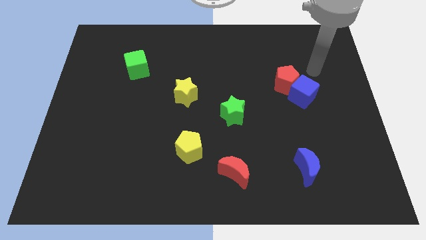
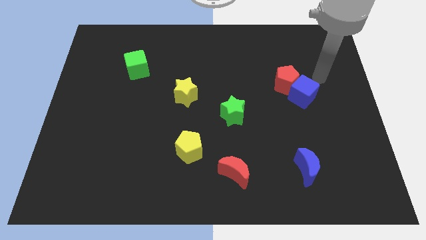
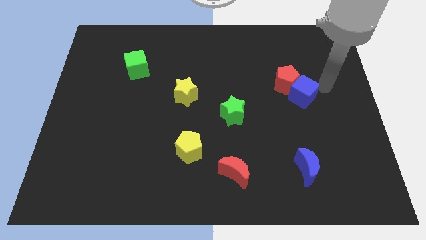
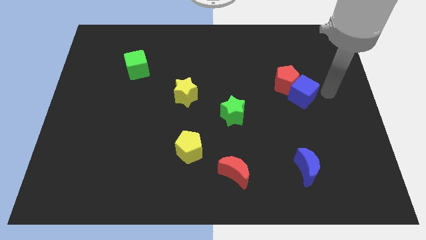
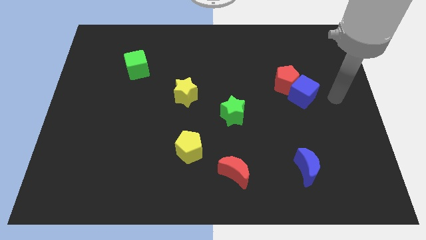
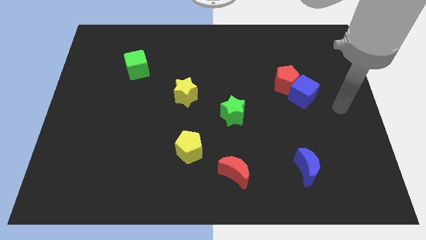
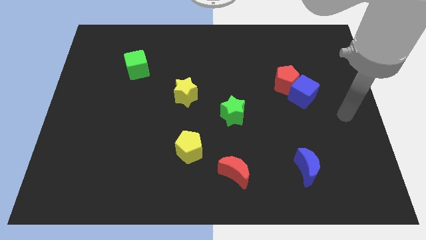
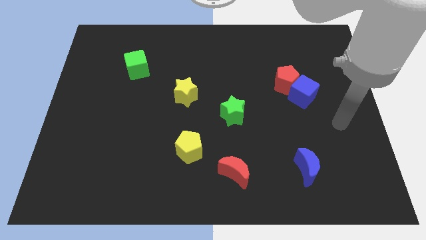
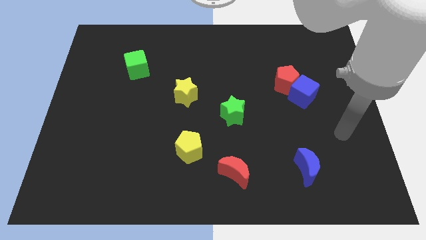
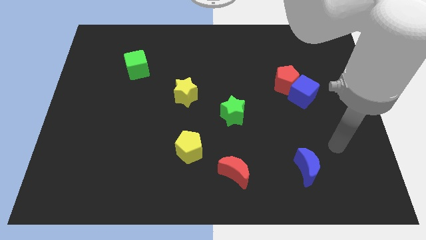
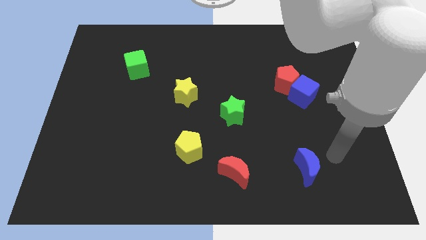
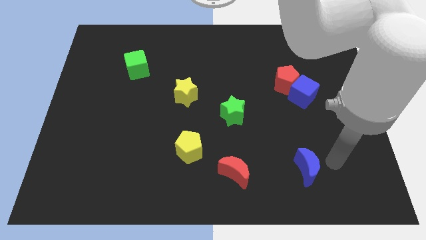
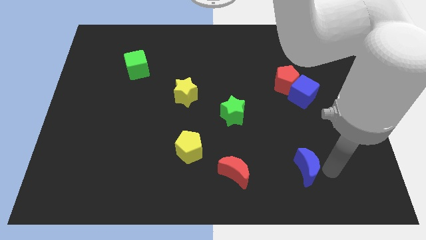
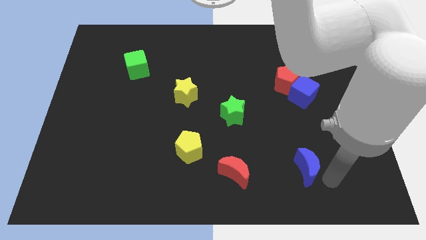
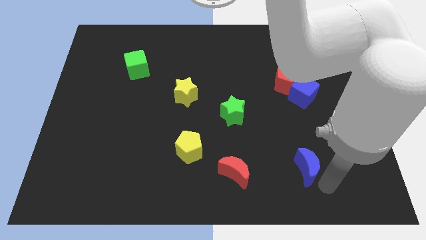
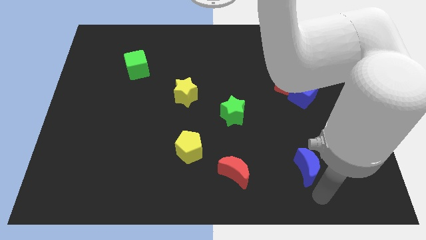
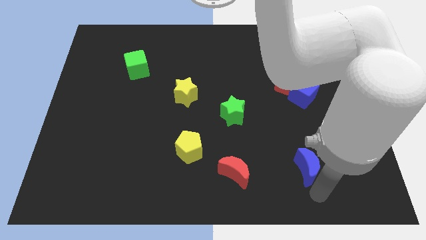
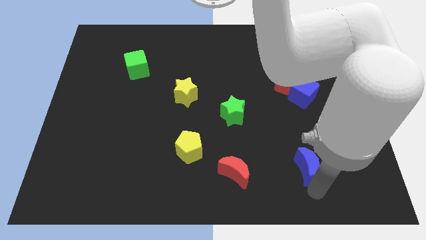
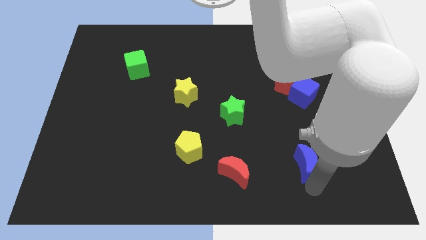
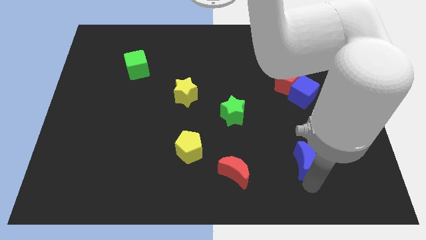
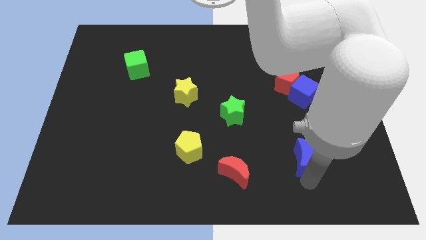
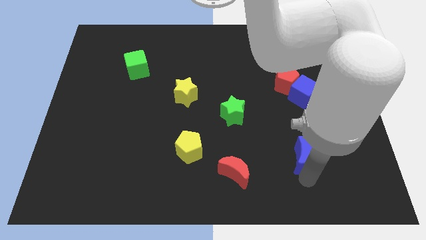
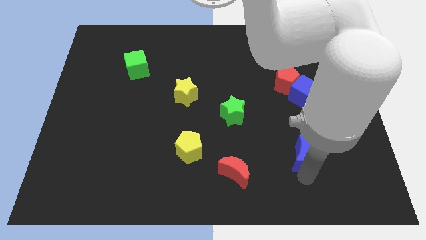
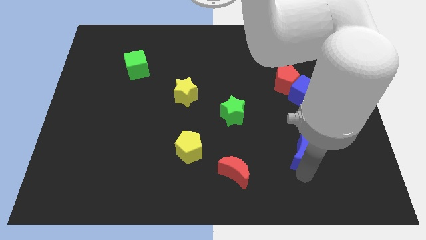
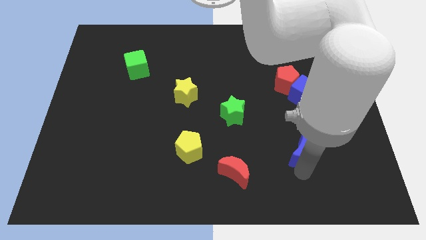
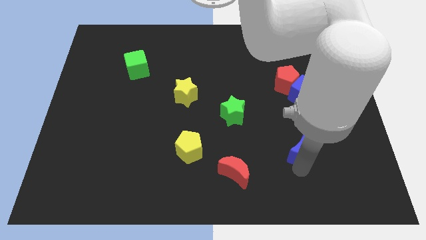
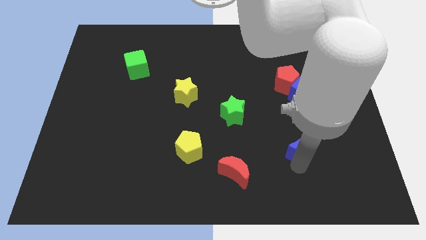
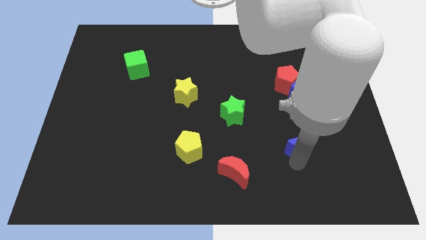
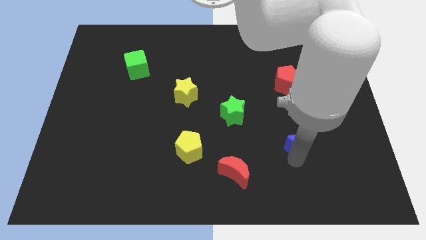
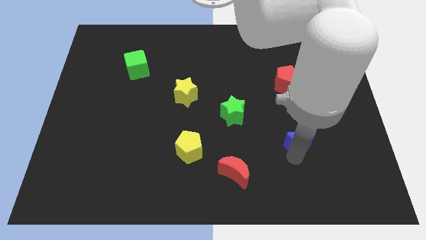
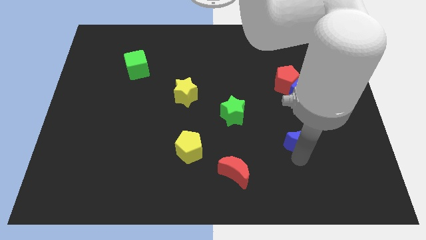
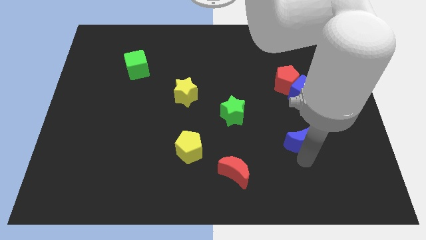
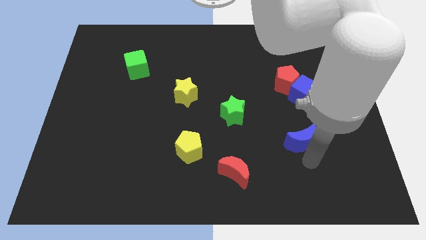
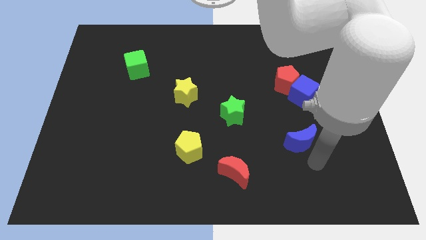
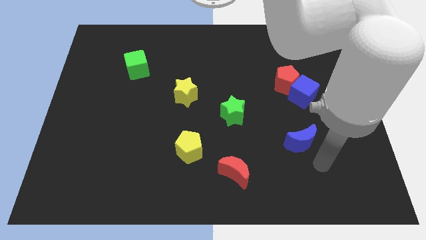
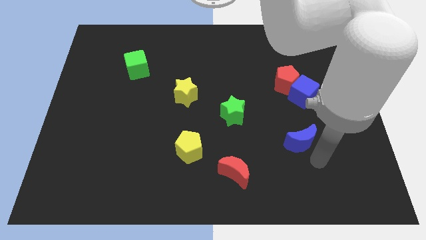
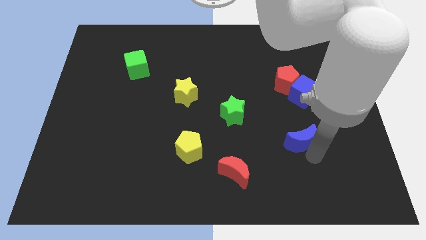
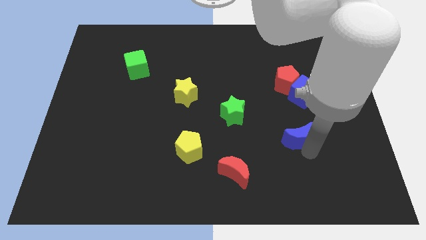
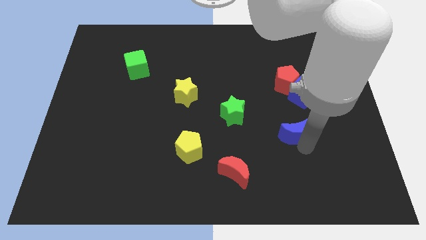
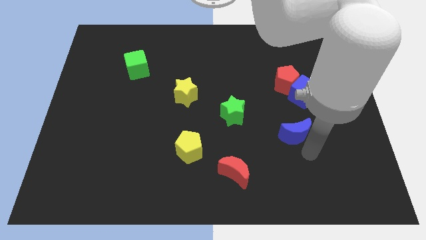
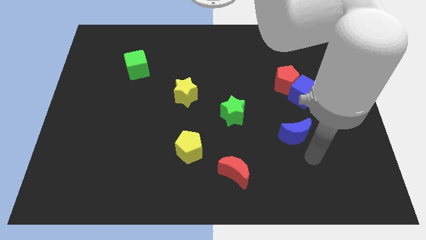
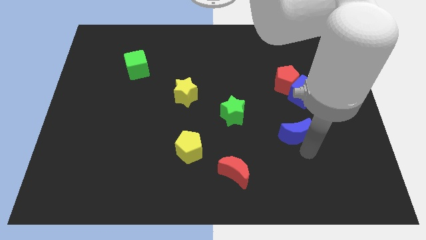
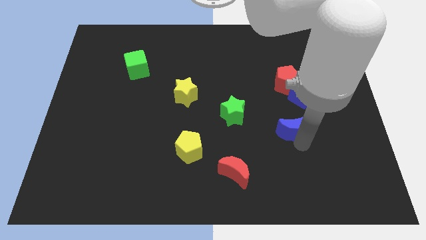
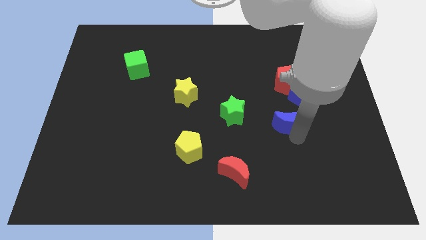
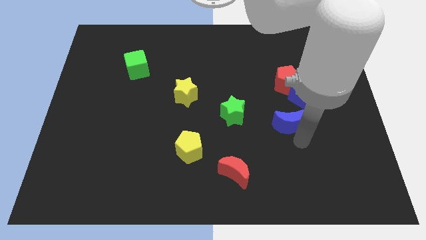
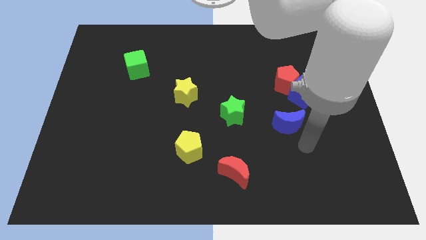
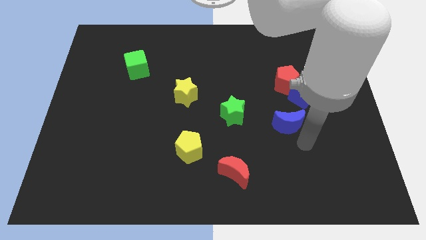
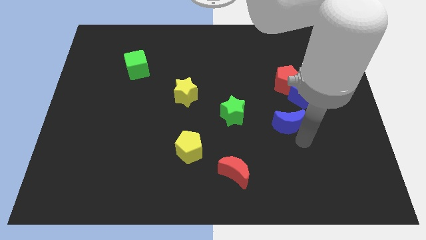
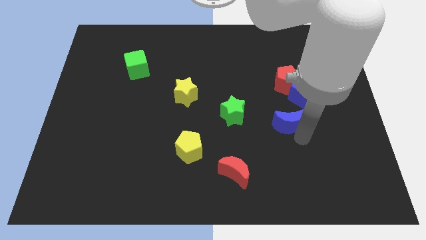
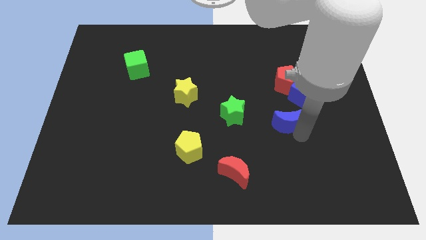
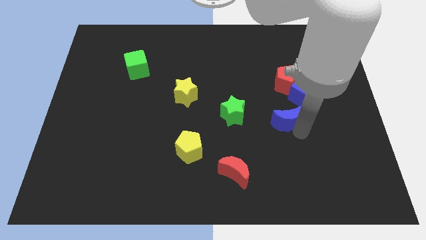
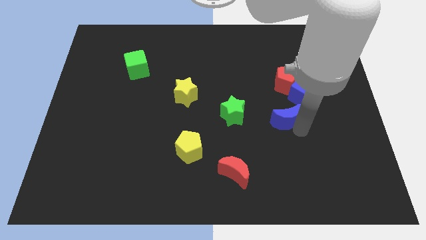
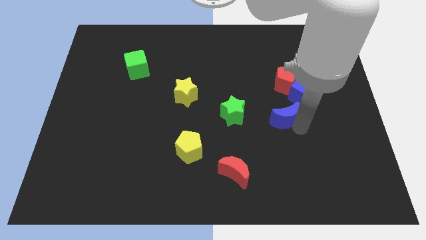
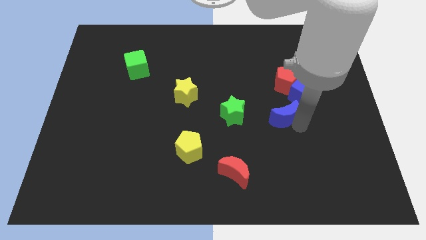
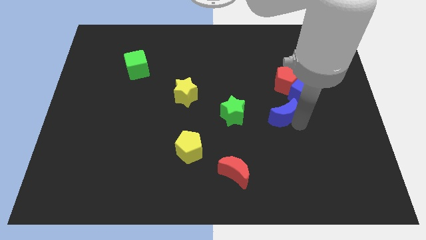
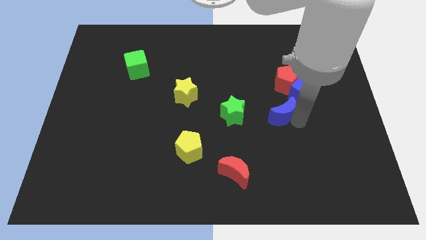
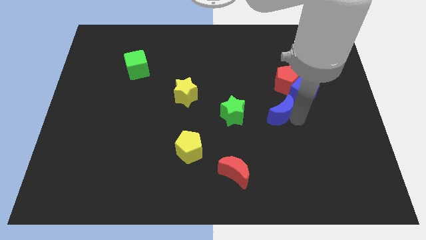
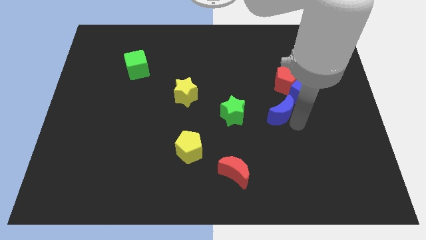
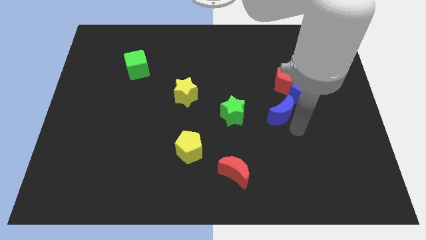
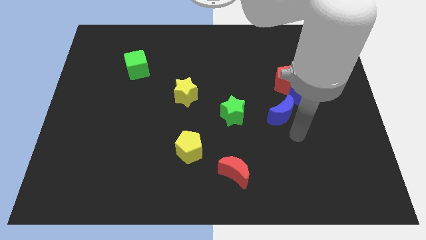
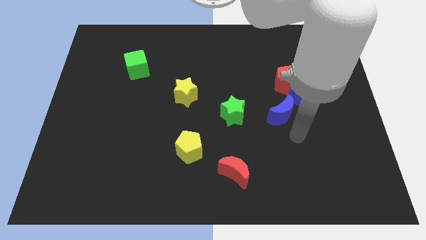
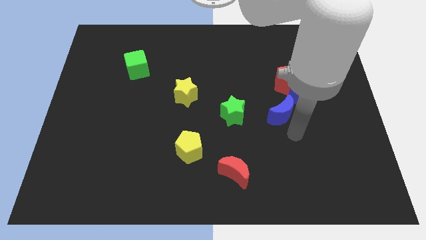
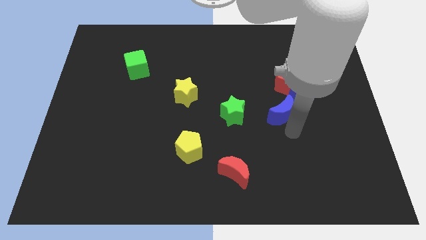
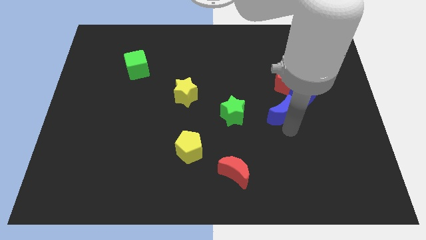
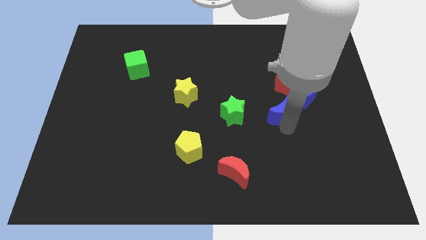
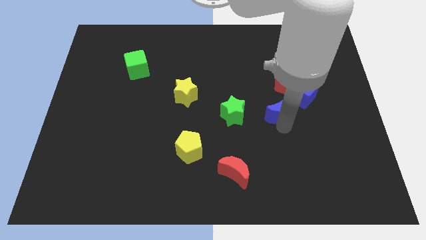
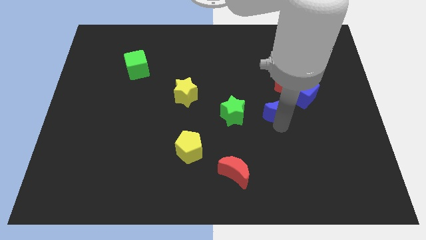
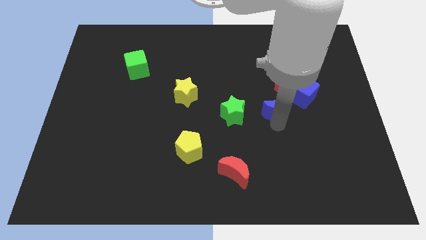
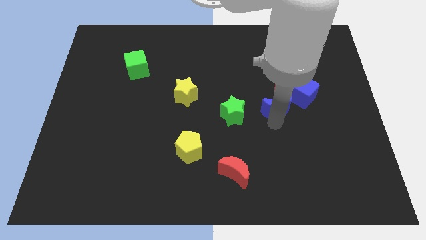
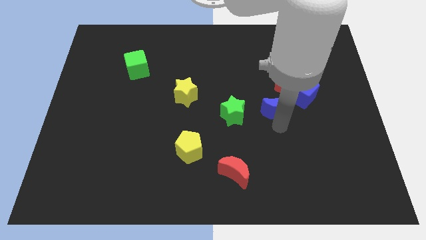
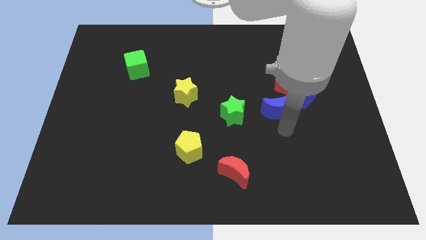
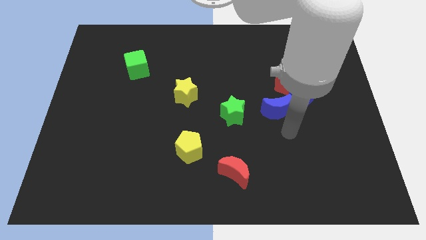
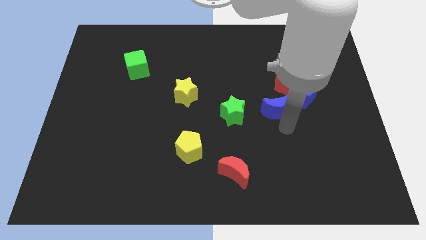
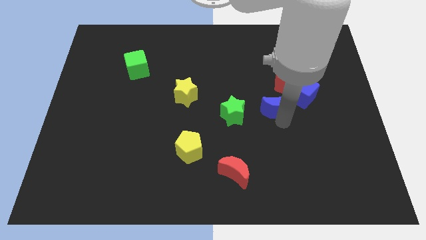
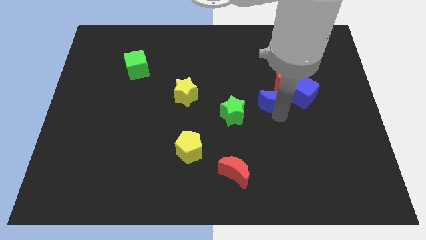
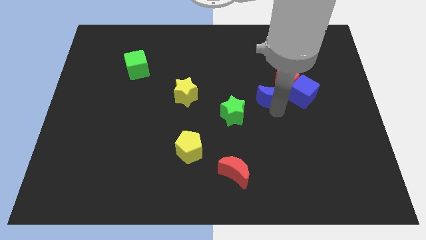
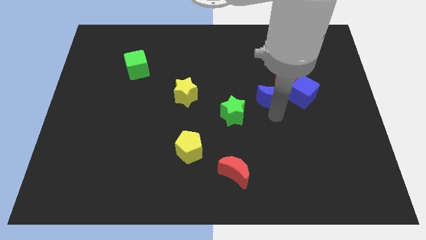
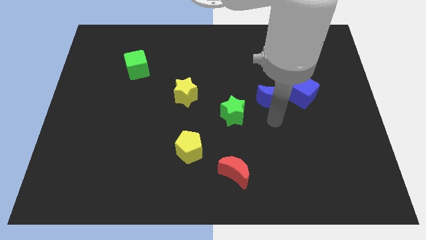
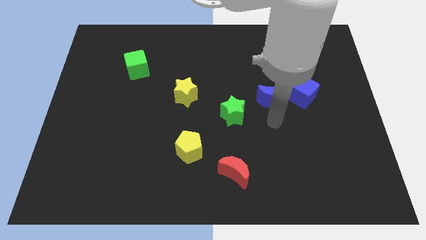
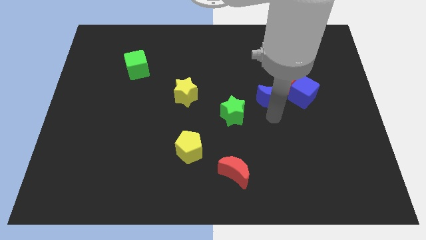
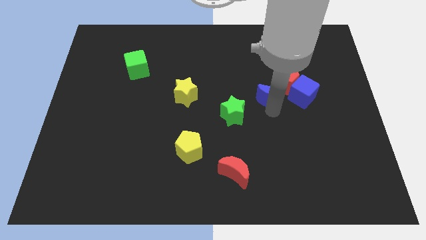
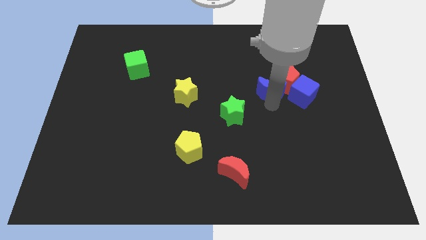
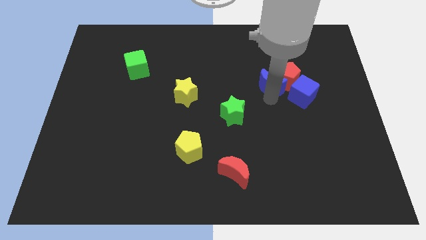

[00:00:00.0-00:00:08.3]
move the blue moon up

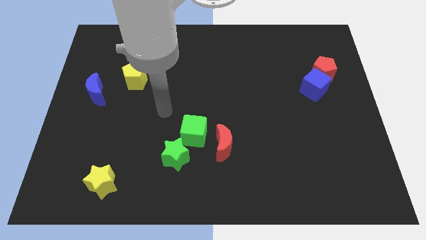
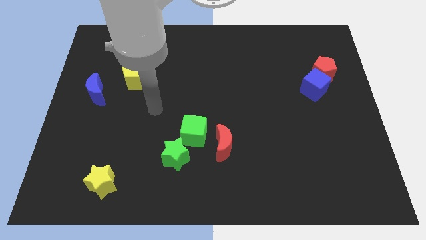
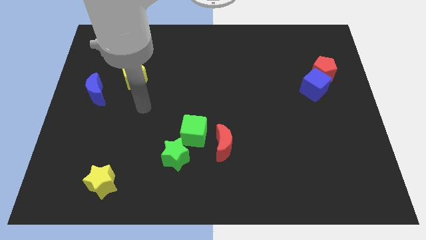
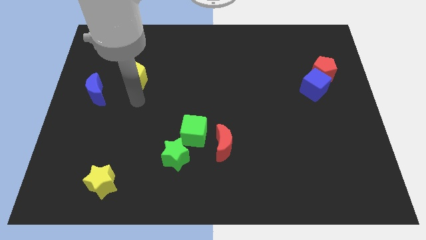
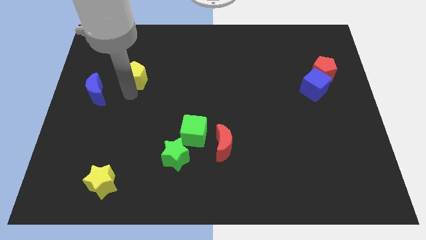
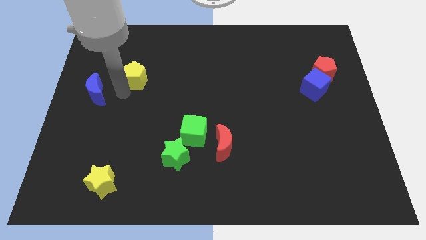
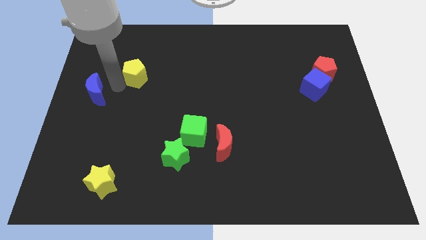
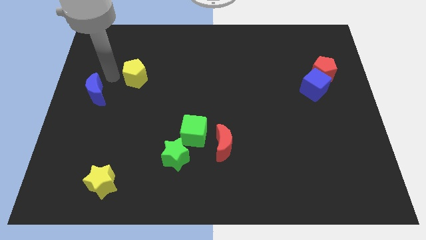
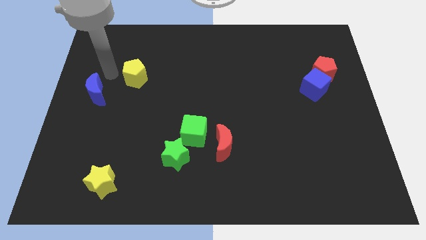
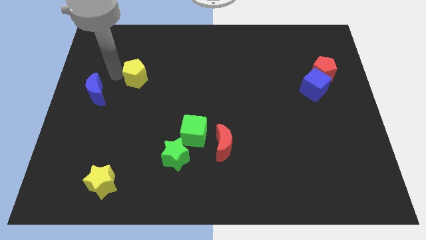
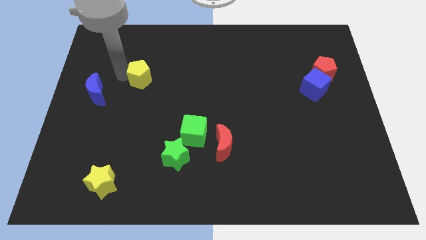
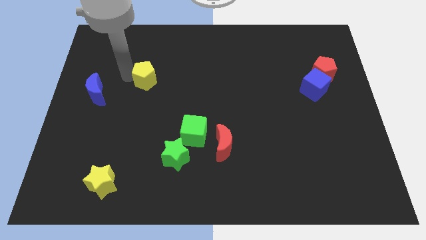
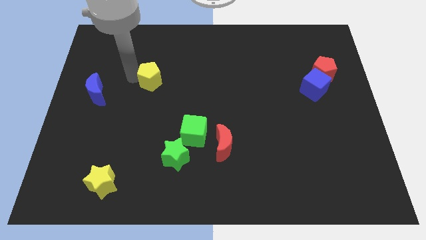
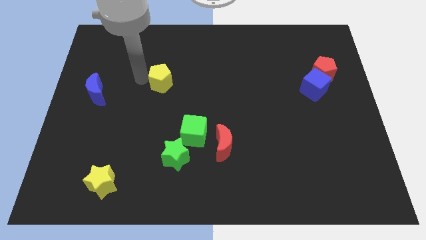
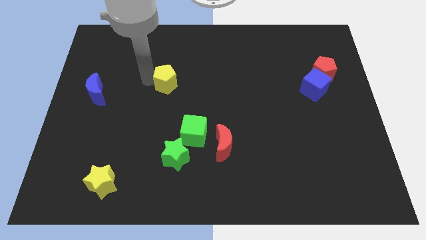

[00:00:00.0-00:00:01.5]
slide the yellow pentagon right slightly
